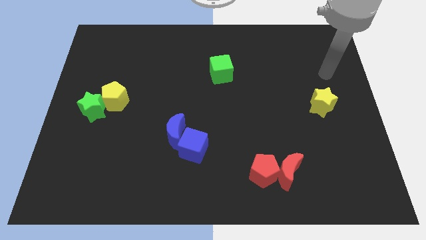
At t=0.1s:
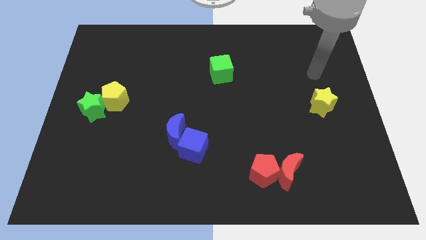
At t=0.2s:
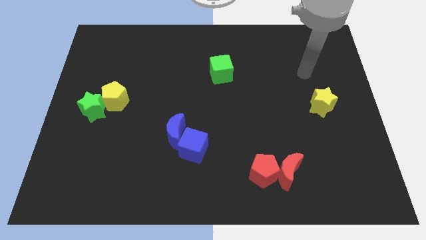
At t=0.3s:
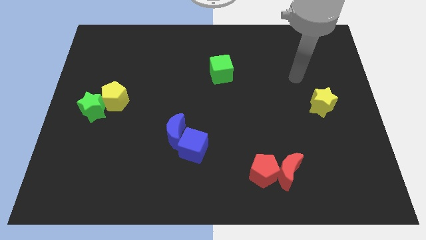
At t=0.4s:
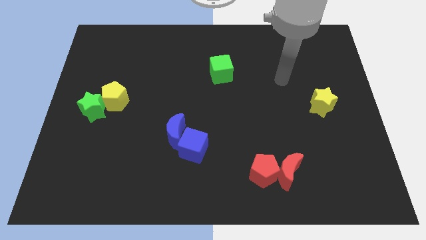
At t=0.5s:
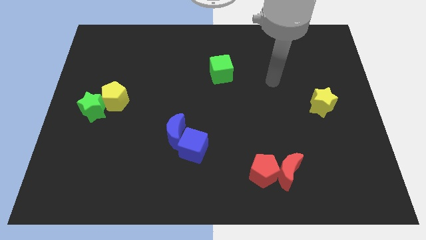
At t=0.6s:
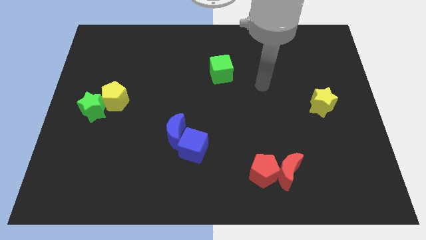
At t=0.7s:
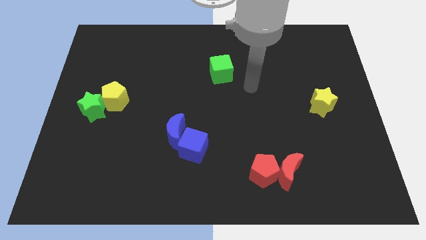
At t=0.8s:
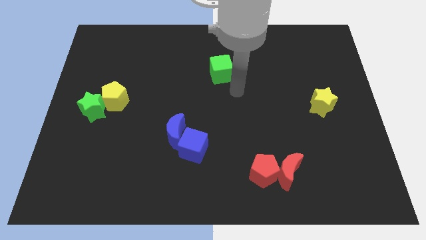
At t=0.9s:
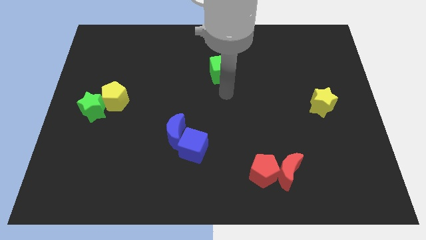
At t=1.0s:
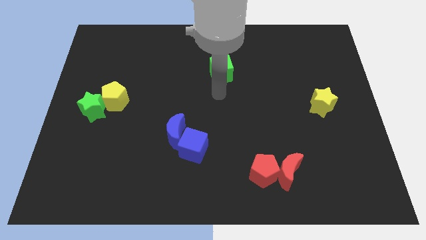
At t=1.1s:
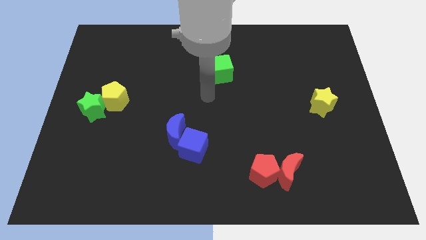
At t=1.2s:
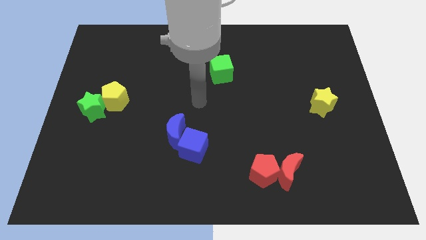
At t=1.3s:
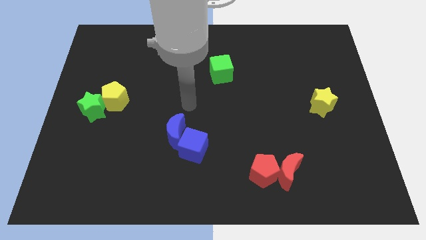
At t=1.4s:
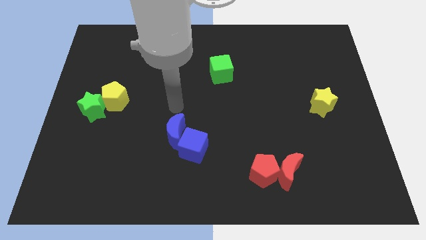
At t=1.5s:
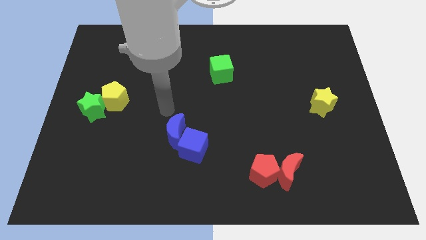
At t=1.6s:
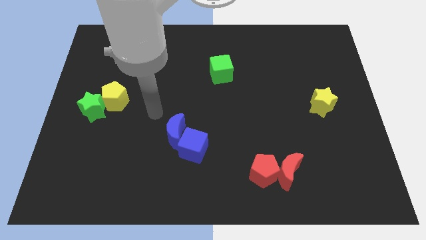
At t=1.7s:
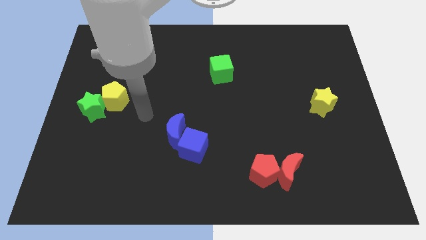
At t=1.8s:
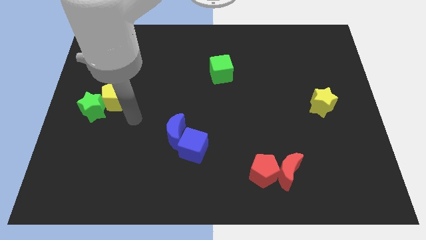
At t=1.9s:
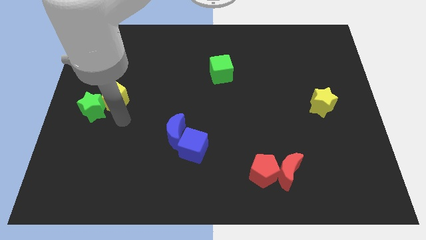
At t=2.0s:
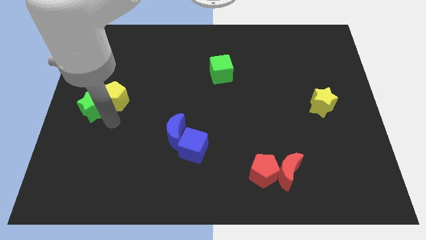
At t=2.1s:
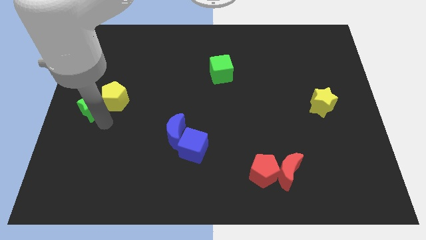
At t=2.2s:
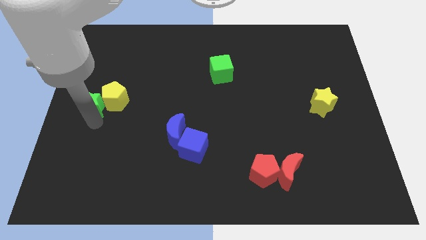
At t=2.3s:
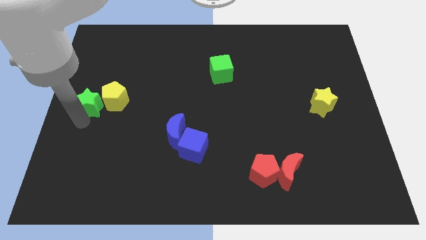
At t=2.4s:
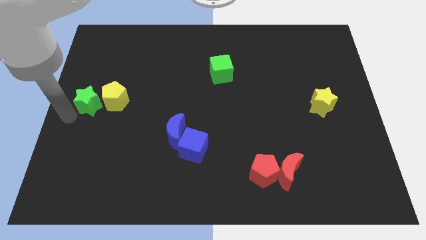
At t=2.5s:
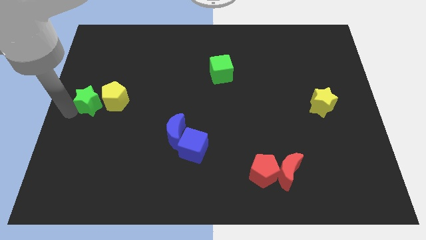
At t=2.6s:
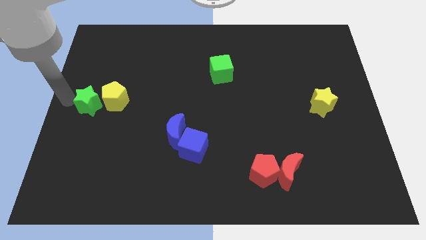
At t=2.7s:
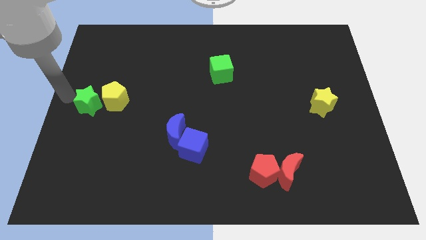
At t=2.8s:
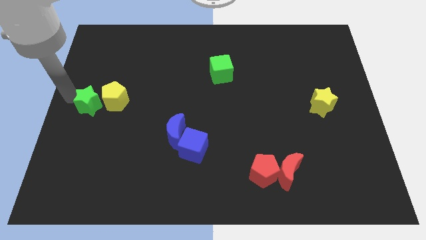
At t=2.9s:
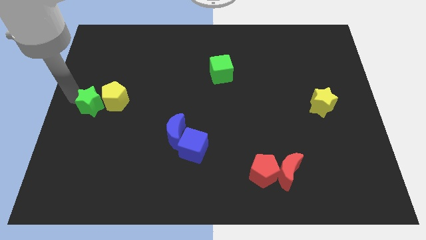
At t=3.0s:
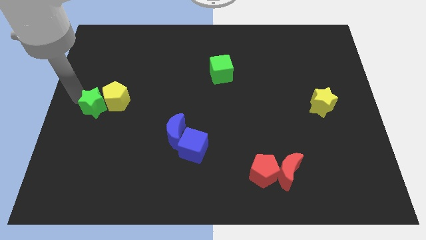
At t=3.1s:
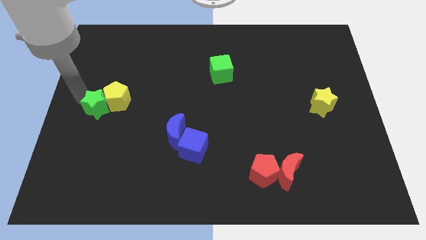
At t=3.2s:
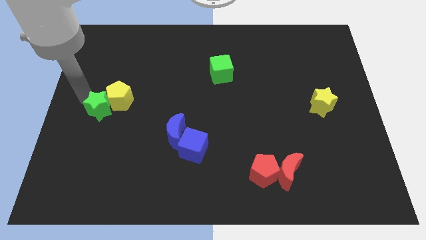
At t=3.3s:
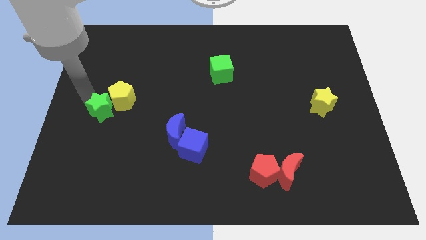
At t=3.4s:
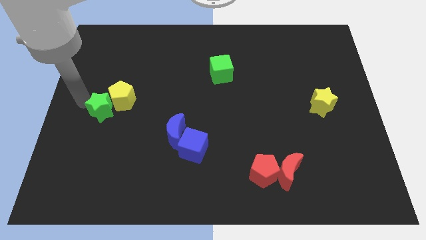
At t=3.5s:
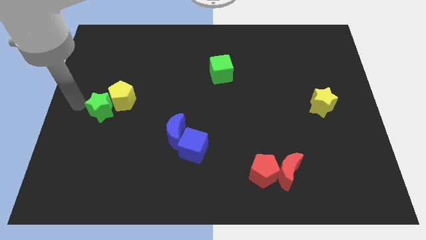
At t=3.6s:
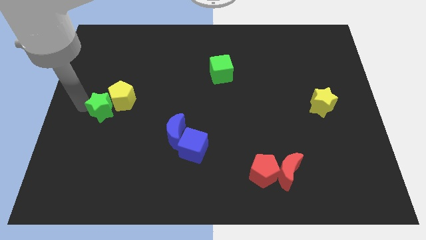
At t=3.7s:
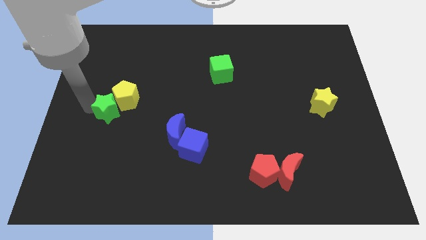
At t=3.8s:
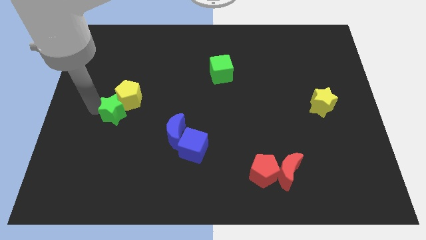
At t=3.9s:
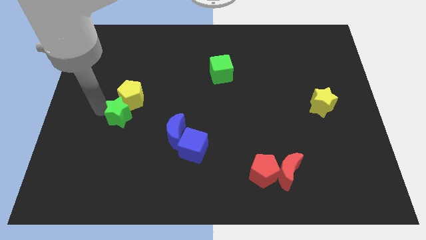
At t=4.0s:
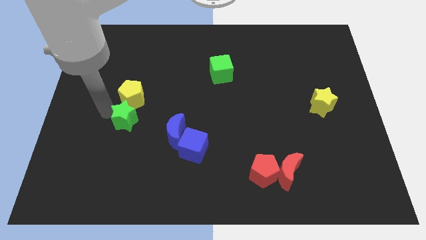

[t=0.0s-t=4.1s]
slide the green star a little bit to the right

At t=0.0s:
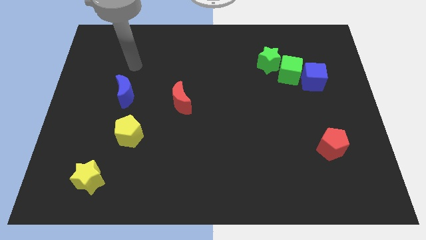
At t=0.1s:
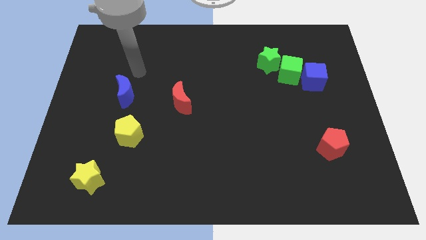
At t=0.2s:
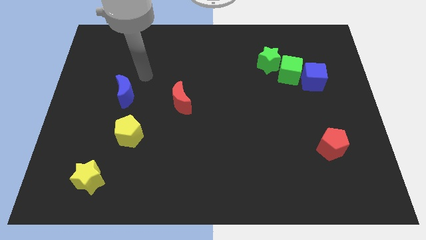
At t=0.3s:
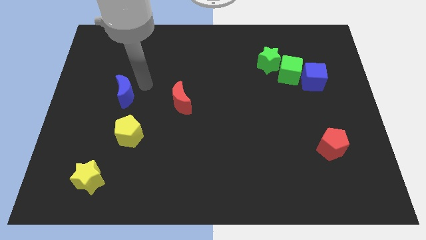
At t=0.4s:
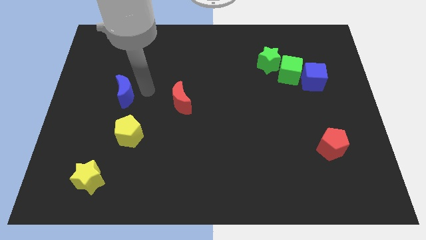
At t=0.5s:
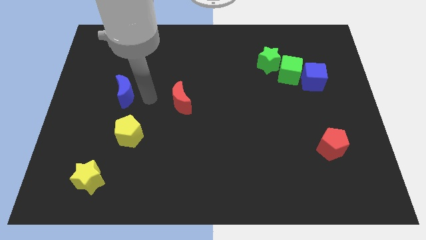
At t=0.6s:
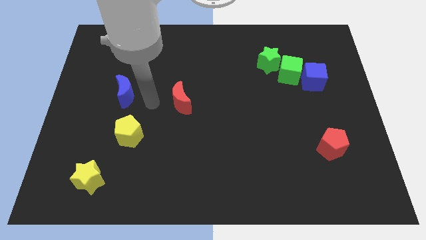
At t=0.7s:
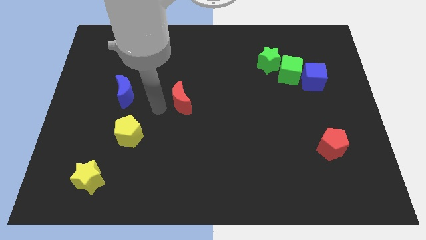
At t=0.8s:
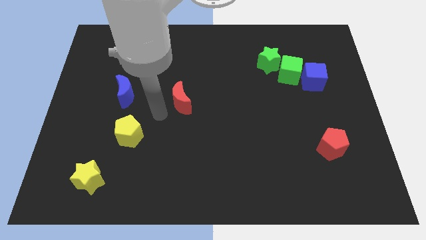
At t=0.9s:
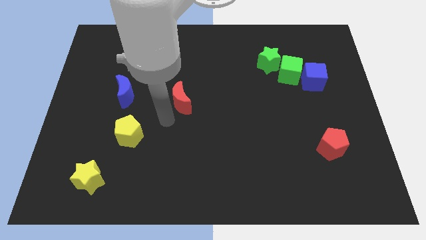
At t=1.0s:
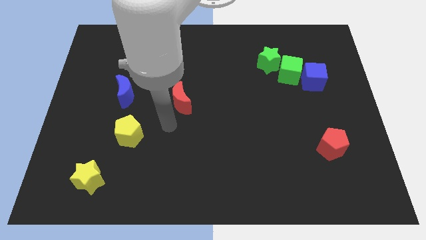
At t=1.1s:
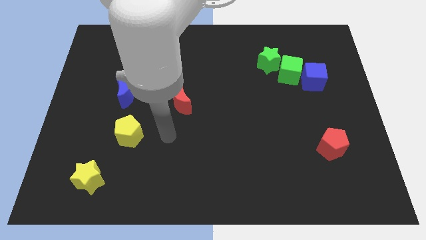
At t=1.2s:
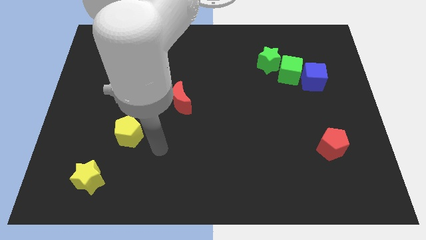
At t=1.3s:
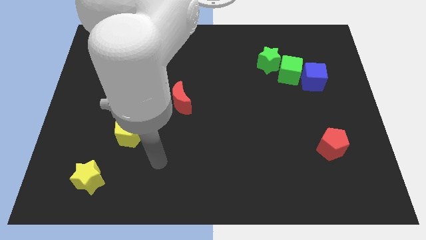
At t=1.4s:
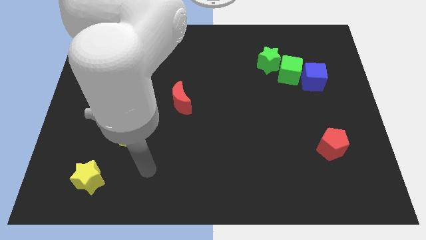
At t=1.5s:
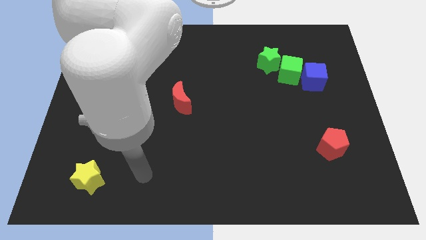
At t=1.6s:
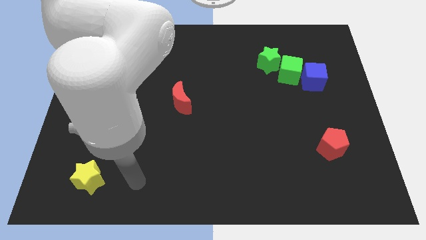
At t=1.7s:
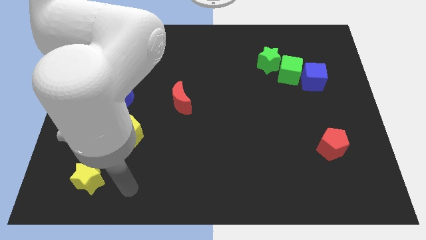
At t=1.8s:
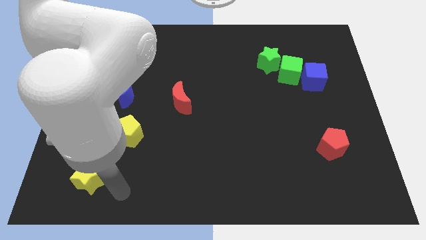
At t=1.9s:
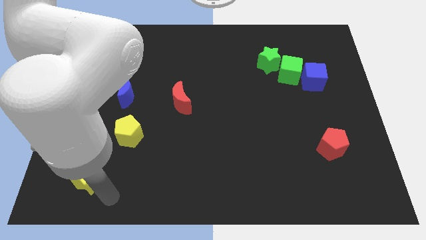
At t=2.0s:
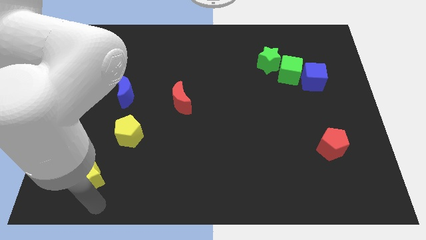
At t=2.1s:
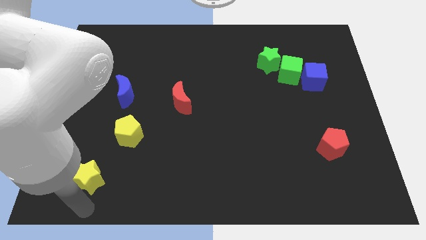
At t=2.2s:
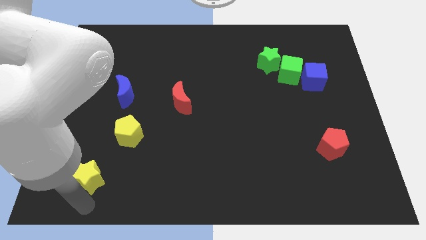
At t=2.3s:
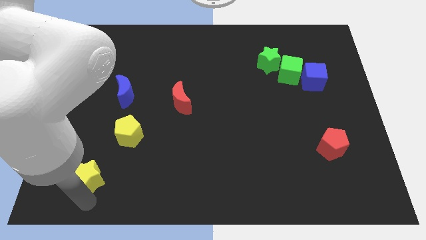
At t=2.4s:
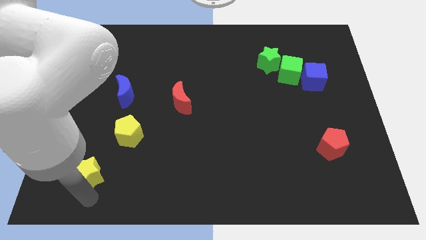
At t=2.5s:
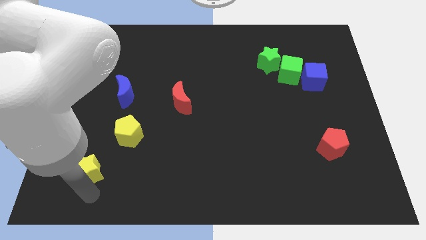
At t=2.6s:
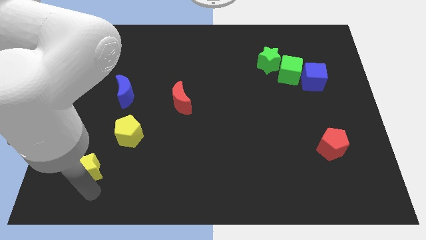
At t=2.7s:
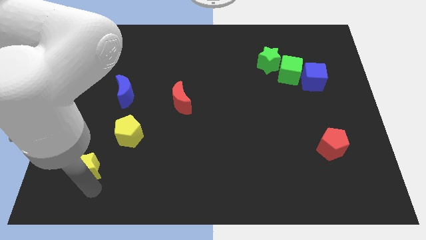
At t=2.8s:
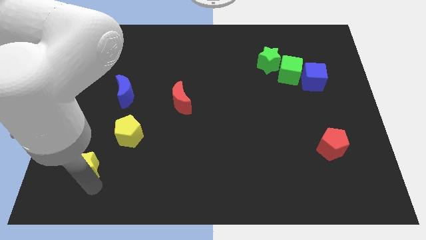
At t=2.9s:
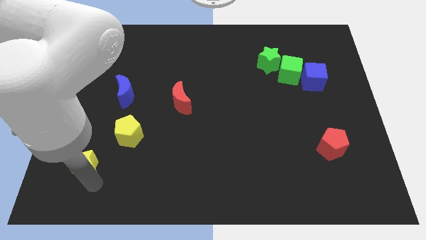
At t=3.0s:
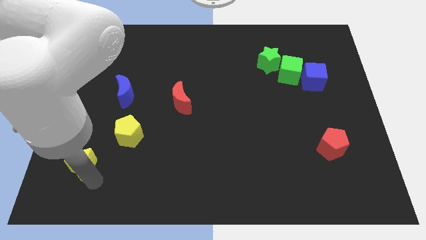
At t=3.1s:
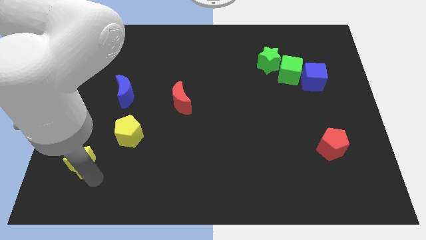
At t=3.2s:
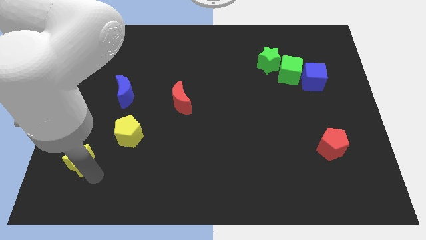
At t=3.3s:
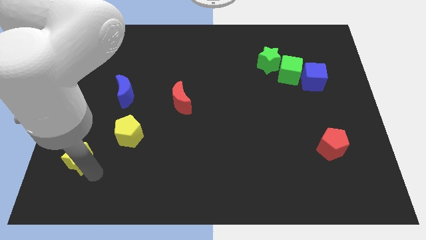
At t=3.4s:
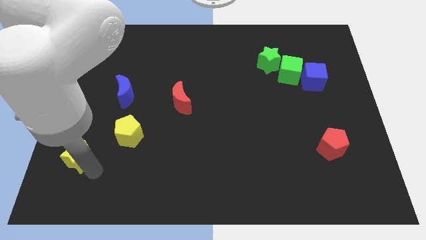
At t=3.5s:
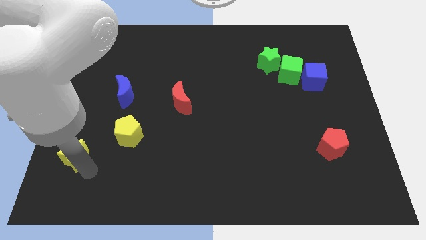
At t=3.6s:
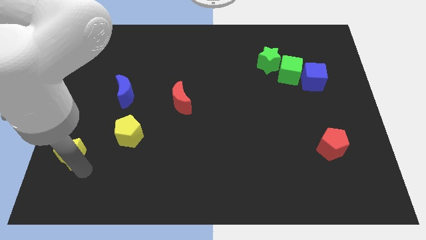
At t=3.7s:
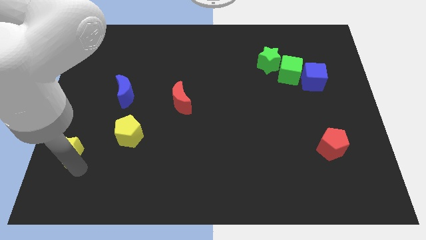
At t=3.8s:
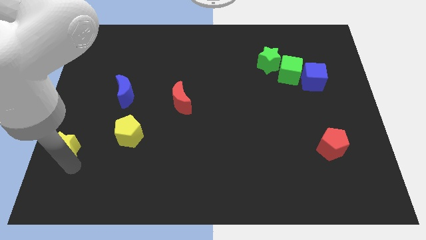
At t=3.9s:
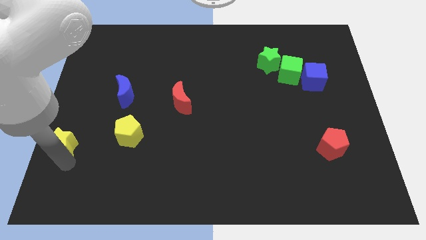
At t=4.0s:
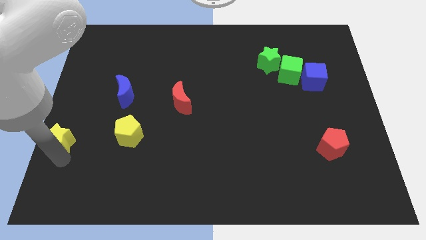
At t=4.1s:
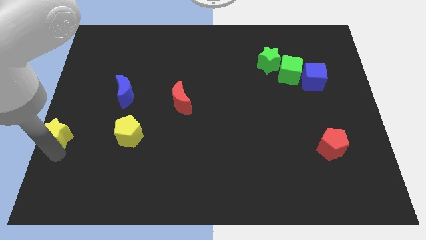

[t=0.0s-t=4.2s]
move the yellow star slightly up

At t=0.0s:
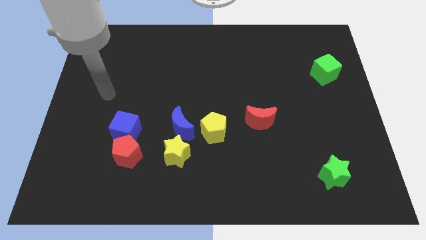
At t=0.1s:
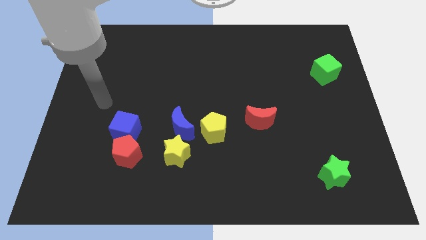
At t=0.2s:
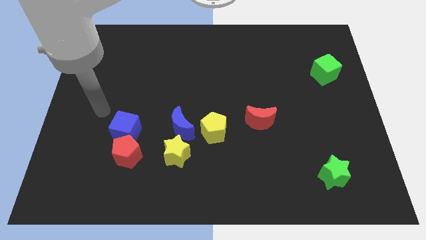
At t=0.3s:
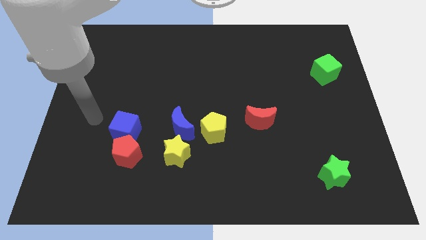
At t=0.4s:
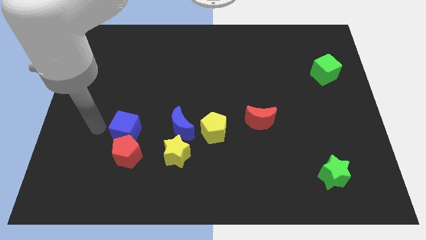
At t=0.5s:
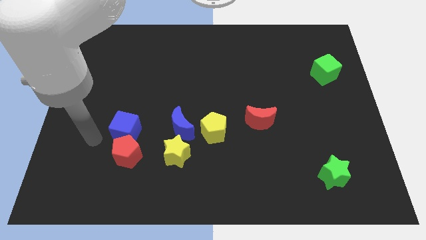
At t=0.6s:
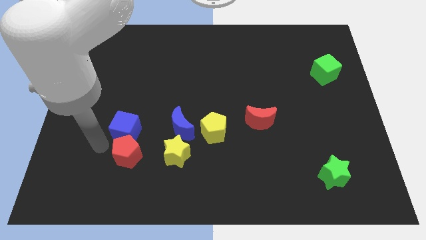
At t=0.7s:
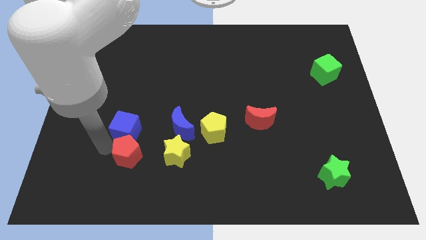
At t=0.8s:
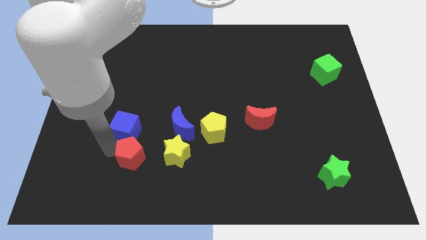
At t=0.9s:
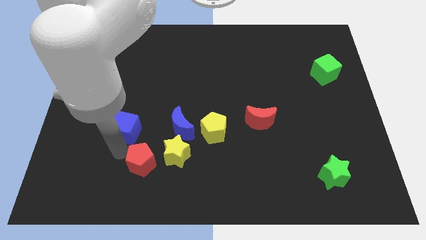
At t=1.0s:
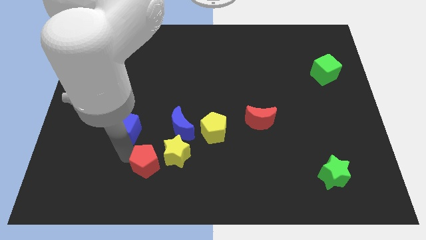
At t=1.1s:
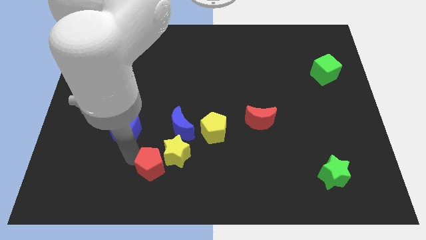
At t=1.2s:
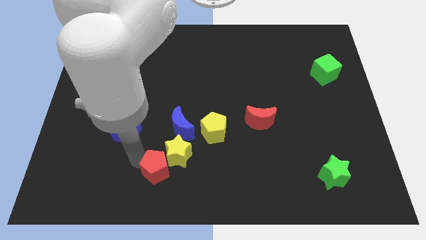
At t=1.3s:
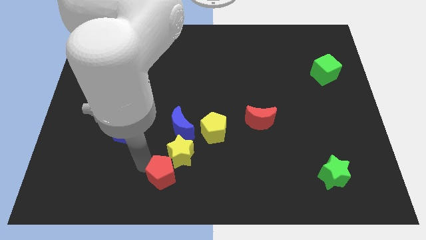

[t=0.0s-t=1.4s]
slide the red pentagon a little to the right
